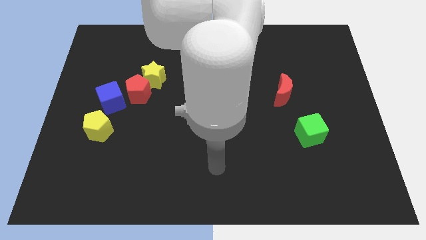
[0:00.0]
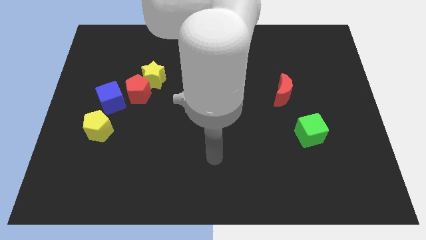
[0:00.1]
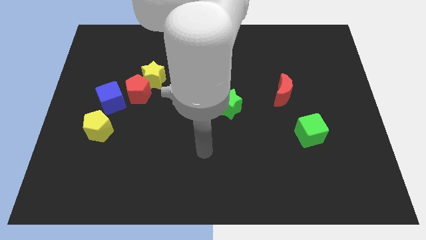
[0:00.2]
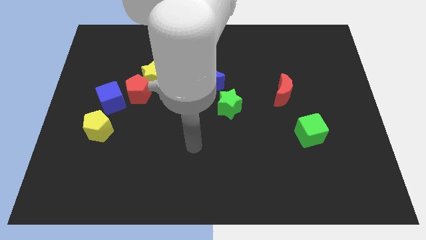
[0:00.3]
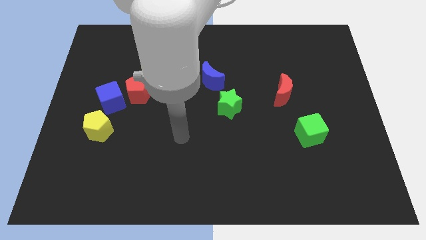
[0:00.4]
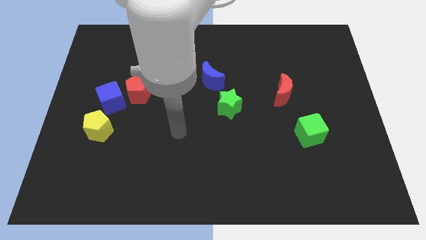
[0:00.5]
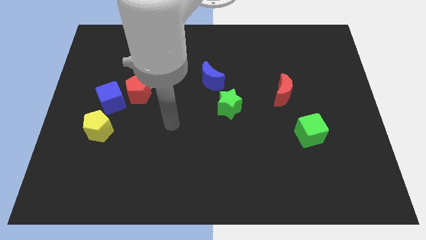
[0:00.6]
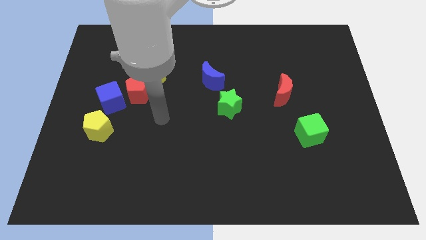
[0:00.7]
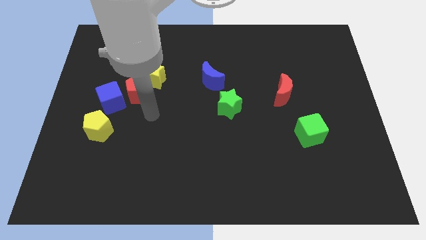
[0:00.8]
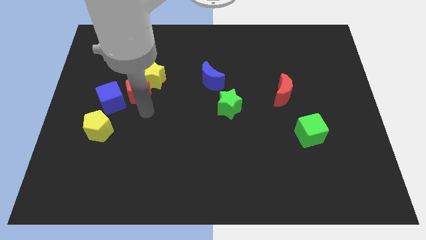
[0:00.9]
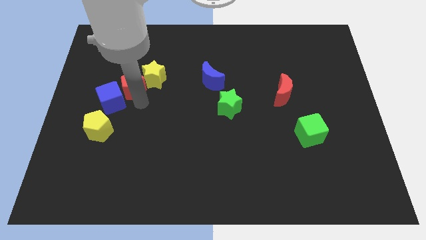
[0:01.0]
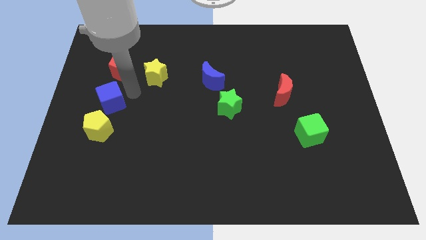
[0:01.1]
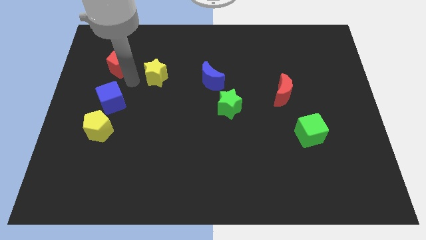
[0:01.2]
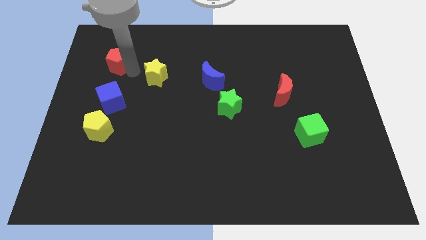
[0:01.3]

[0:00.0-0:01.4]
pull the yellow star apart from the red pentagon

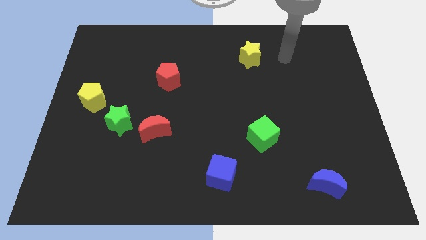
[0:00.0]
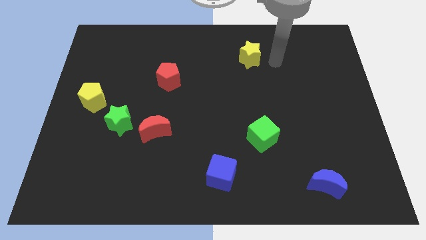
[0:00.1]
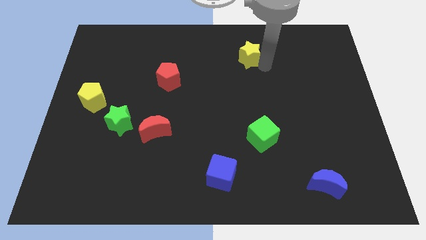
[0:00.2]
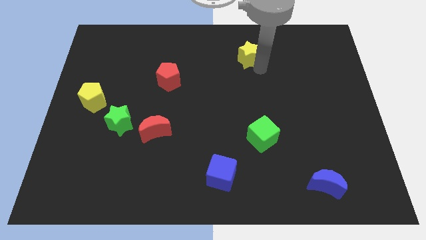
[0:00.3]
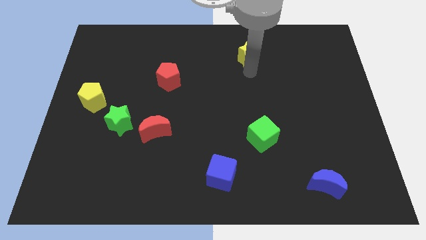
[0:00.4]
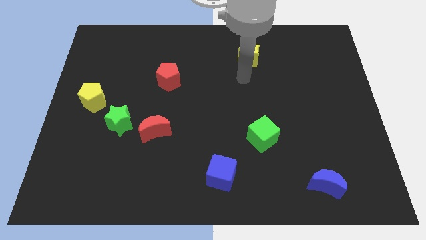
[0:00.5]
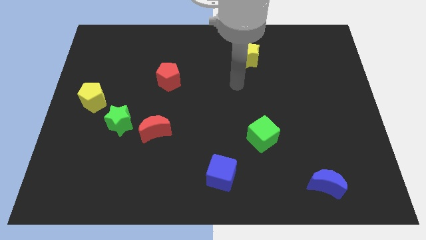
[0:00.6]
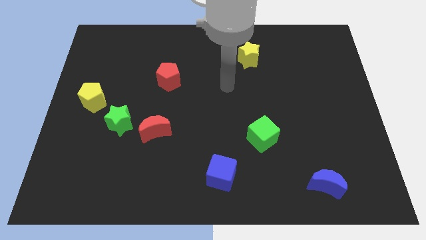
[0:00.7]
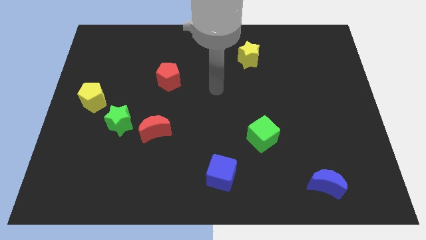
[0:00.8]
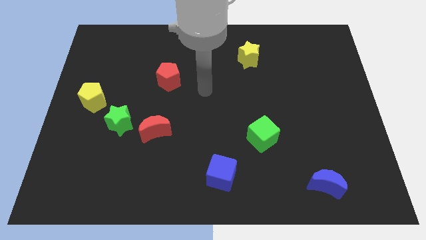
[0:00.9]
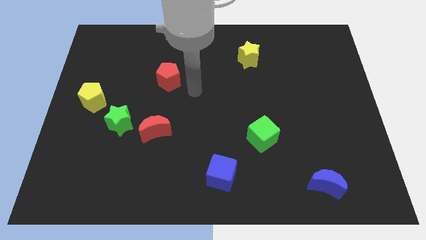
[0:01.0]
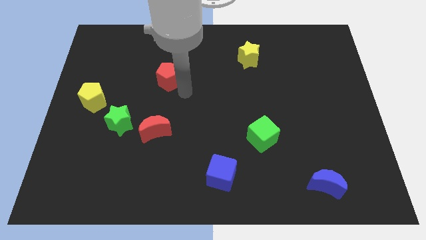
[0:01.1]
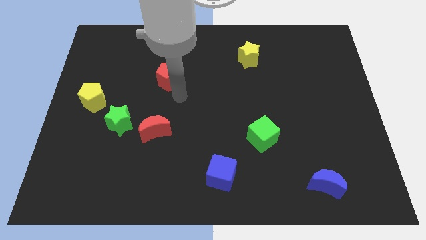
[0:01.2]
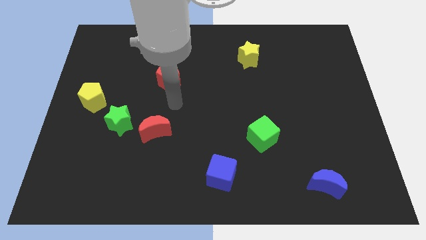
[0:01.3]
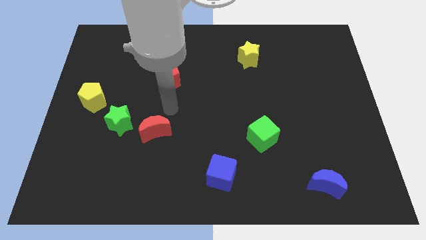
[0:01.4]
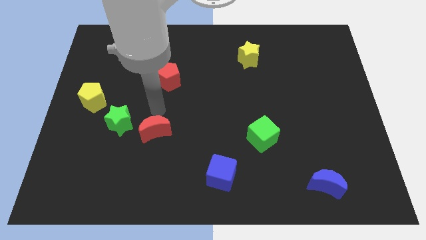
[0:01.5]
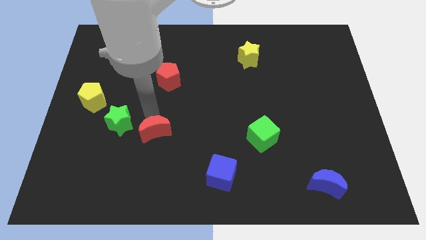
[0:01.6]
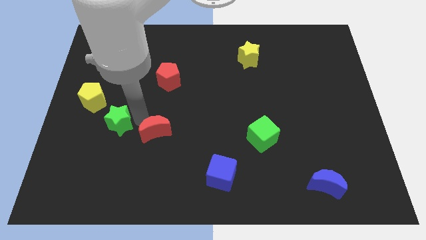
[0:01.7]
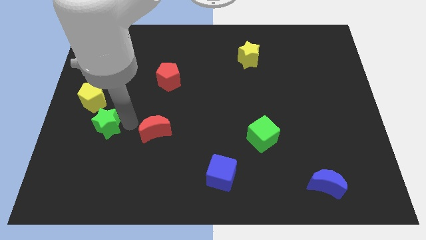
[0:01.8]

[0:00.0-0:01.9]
separate the red moon from the green star

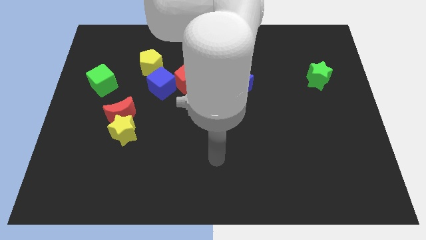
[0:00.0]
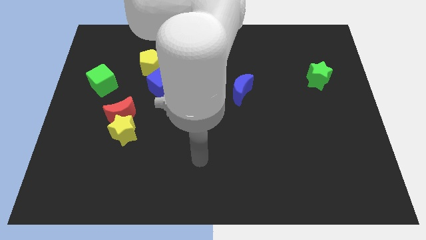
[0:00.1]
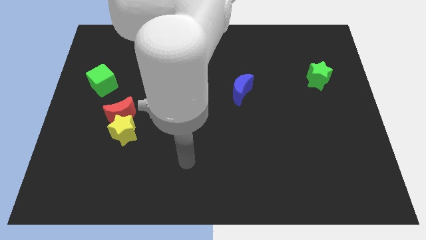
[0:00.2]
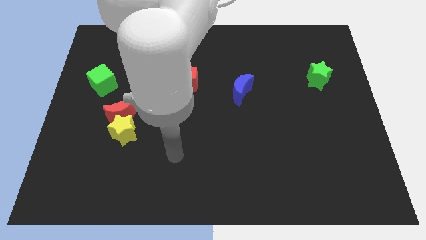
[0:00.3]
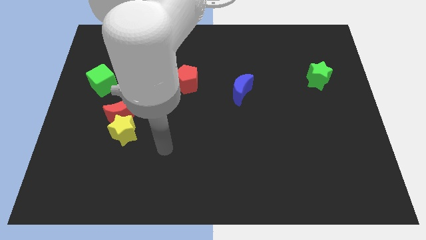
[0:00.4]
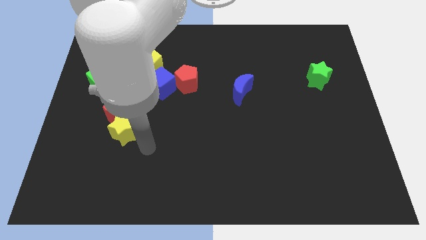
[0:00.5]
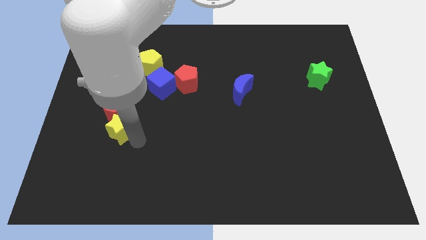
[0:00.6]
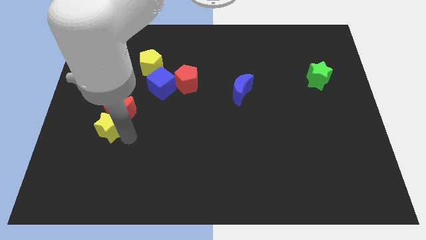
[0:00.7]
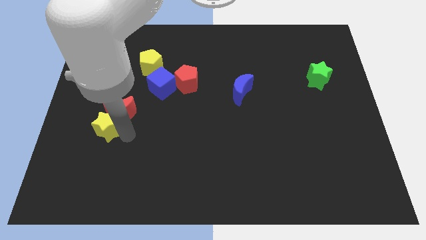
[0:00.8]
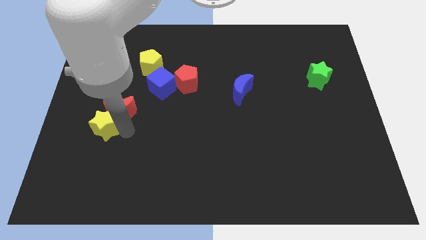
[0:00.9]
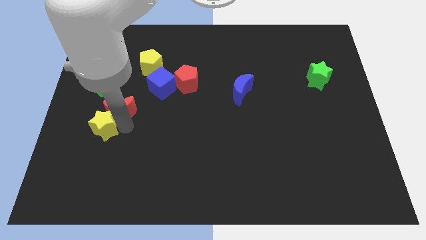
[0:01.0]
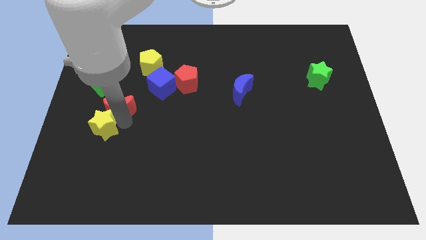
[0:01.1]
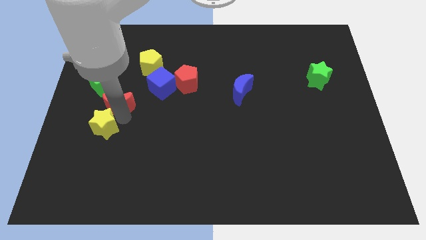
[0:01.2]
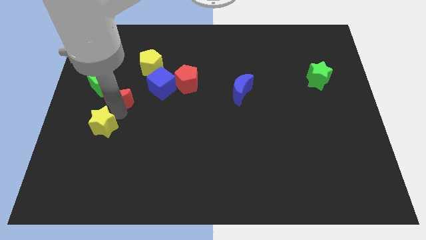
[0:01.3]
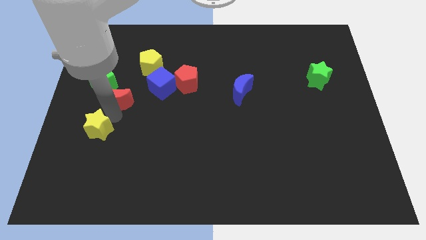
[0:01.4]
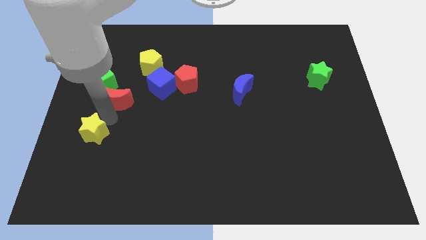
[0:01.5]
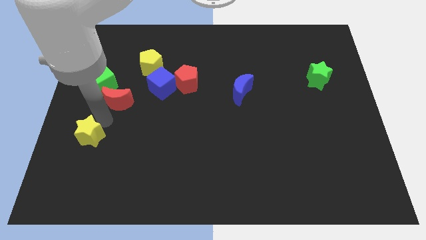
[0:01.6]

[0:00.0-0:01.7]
move the red moon away from the yellow star

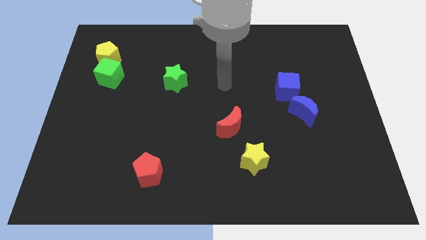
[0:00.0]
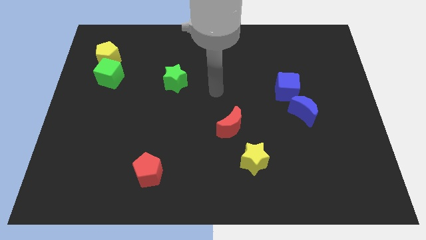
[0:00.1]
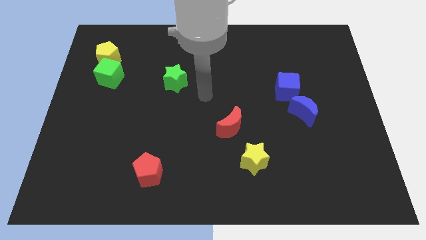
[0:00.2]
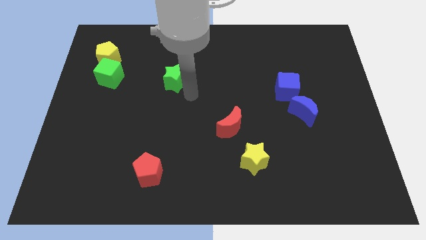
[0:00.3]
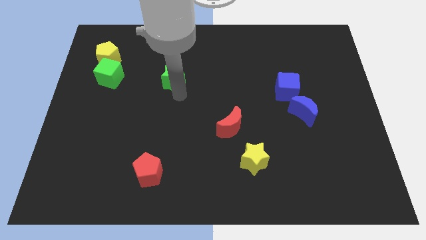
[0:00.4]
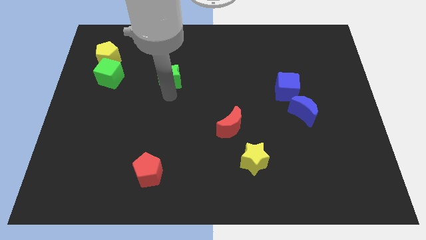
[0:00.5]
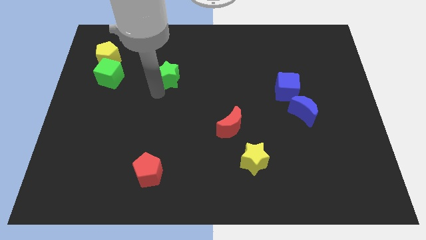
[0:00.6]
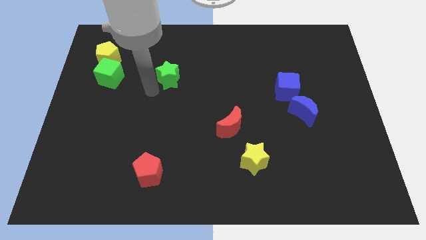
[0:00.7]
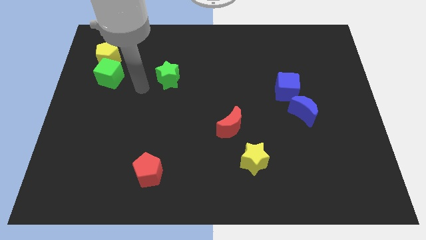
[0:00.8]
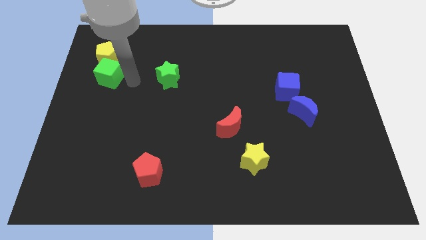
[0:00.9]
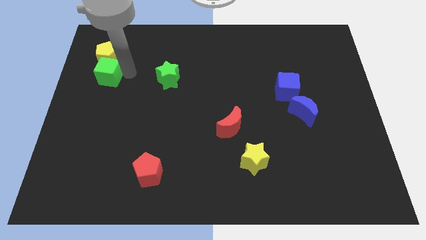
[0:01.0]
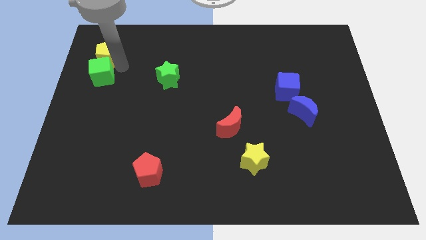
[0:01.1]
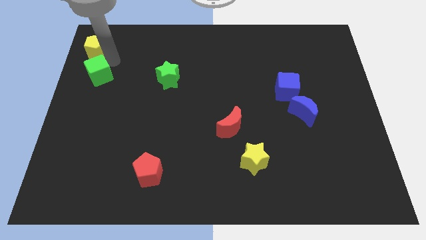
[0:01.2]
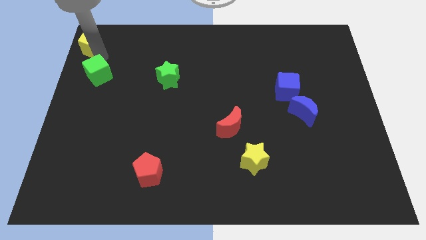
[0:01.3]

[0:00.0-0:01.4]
separate the green cube from the yellow pentagon

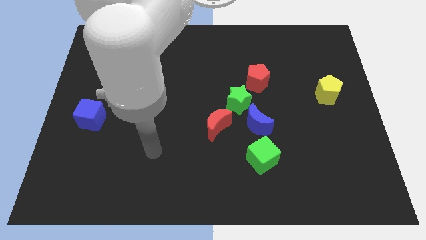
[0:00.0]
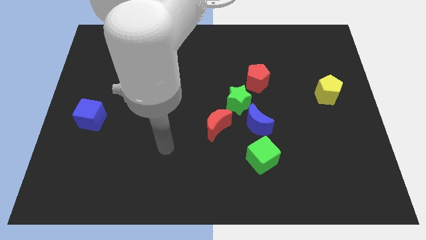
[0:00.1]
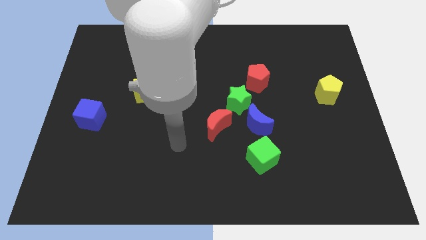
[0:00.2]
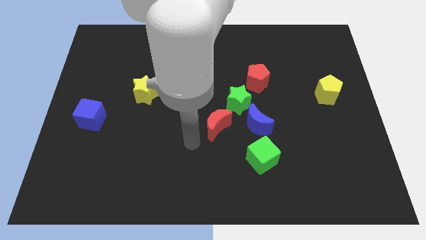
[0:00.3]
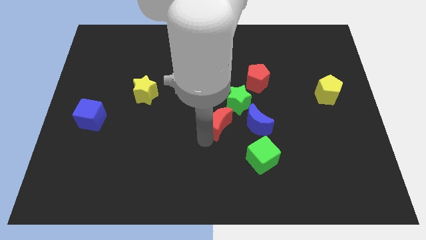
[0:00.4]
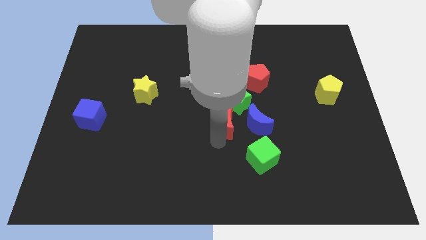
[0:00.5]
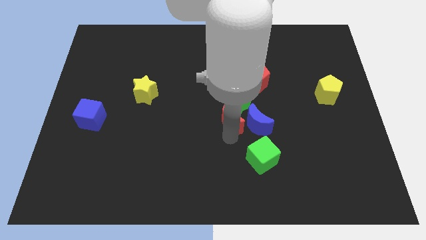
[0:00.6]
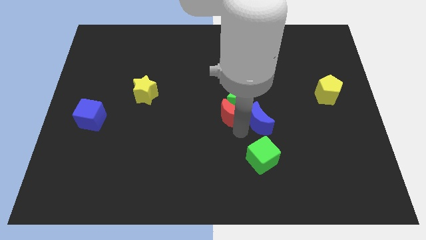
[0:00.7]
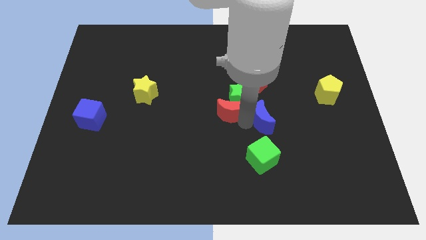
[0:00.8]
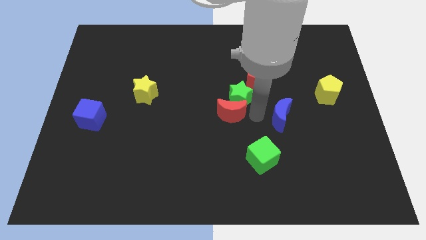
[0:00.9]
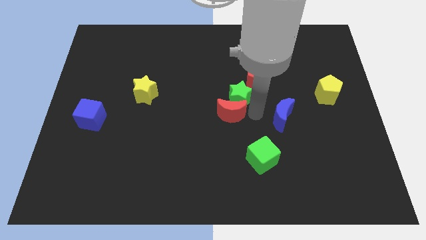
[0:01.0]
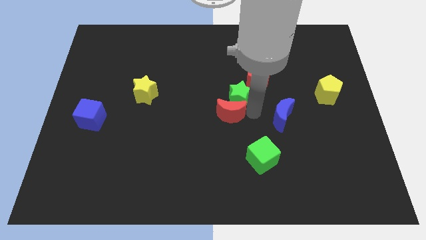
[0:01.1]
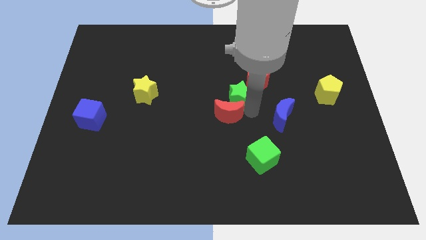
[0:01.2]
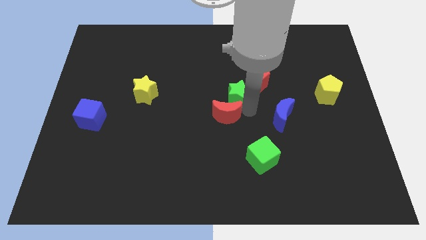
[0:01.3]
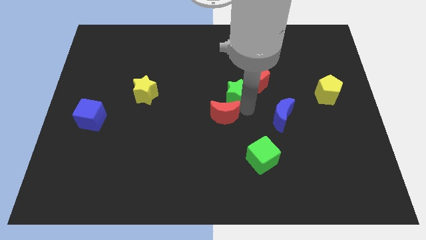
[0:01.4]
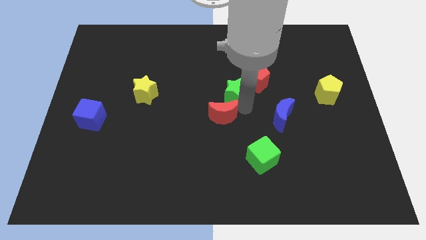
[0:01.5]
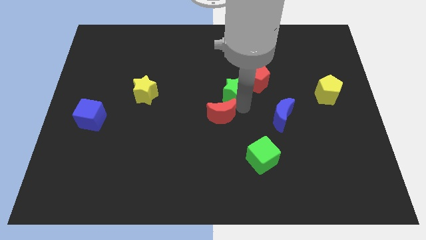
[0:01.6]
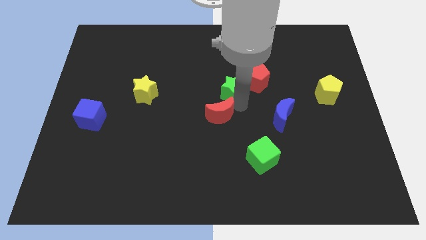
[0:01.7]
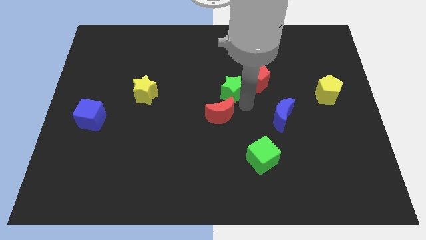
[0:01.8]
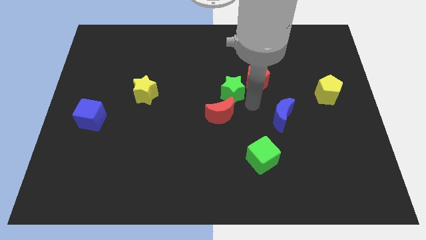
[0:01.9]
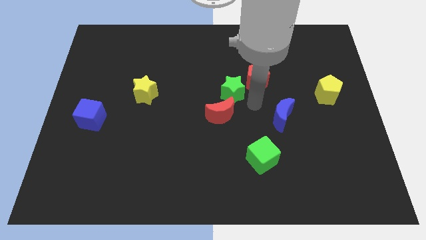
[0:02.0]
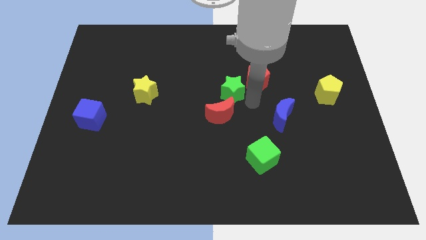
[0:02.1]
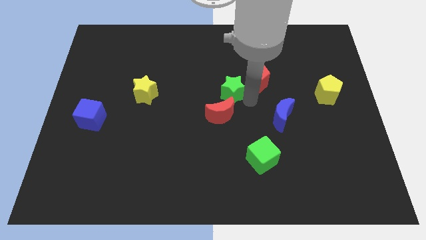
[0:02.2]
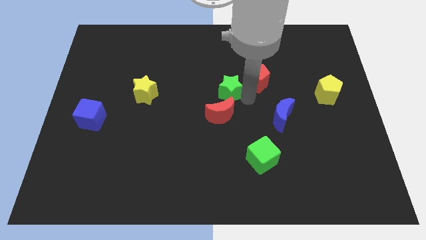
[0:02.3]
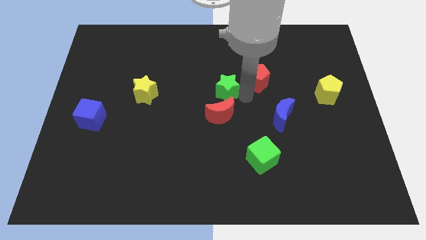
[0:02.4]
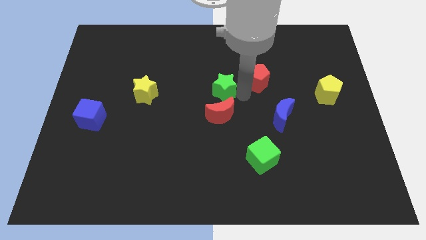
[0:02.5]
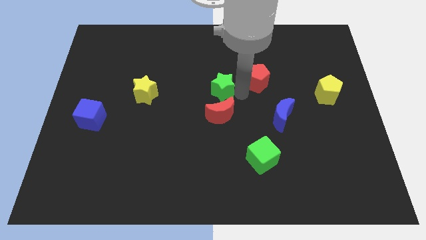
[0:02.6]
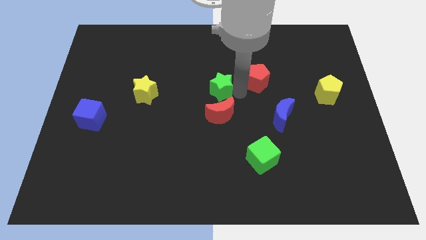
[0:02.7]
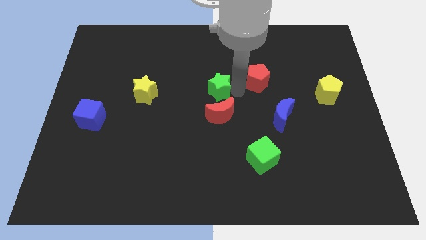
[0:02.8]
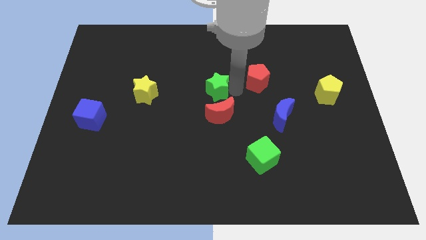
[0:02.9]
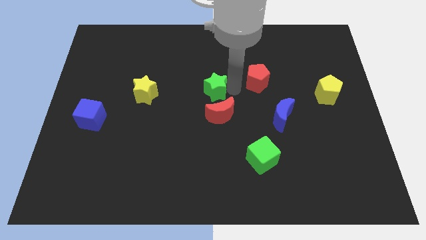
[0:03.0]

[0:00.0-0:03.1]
pull the green star apart from the group of blocks
